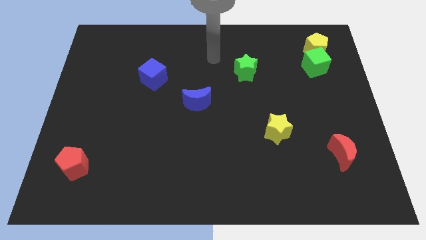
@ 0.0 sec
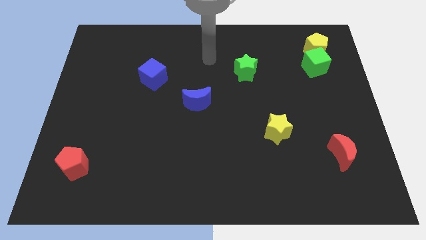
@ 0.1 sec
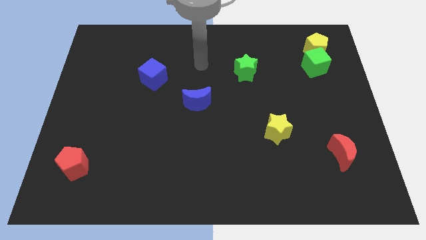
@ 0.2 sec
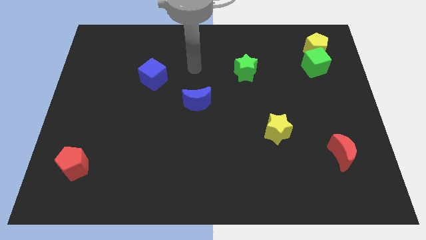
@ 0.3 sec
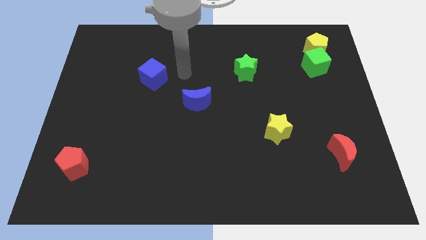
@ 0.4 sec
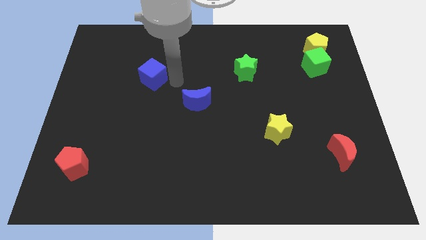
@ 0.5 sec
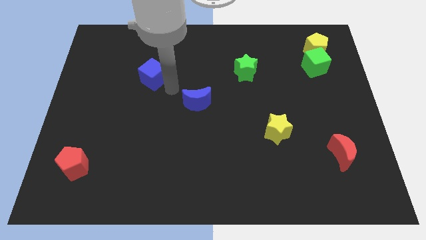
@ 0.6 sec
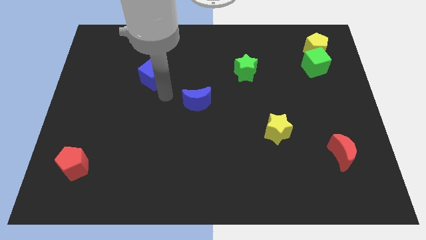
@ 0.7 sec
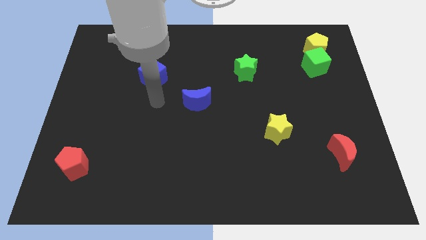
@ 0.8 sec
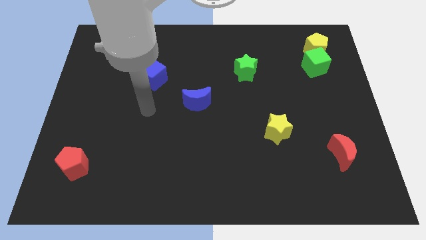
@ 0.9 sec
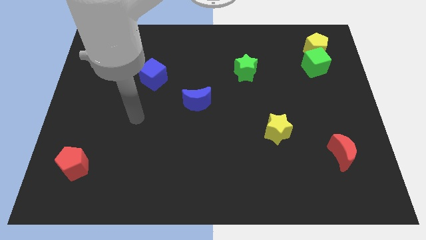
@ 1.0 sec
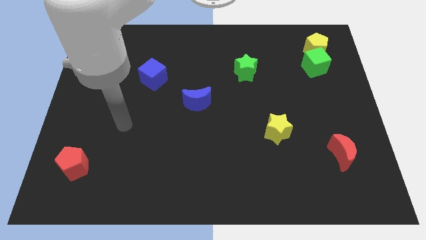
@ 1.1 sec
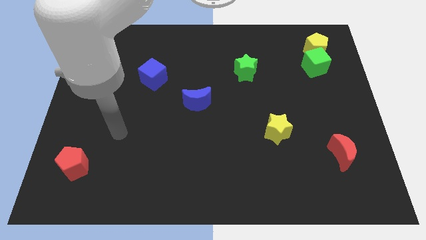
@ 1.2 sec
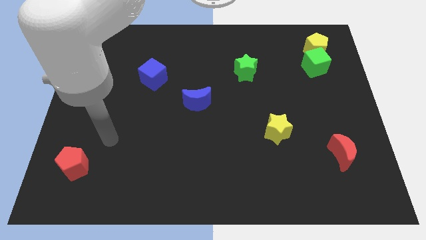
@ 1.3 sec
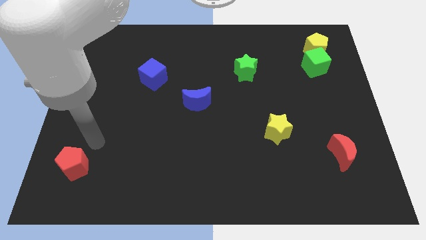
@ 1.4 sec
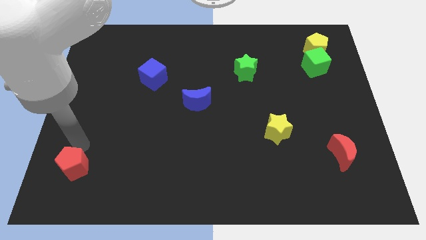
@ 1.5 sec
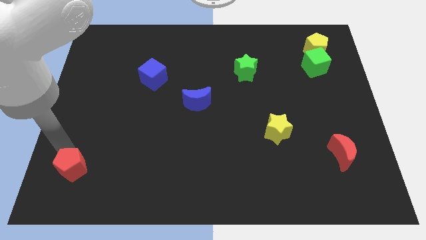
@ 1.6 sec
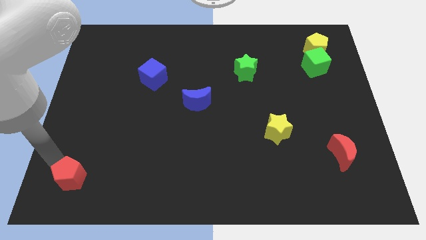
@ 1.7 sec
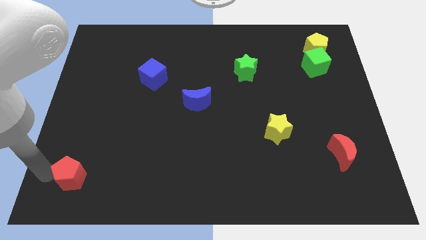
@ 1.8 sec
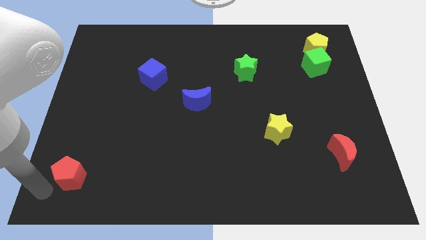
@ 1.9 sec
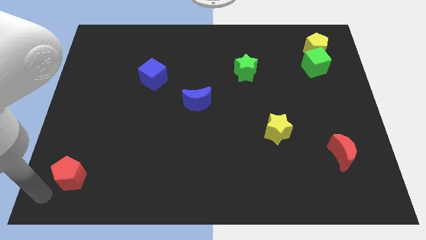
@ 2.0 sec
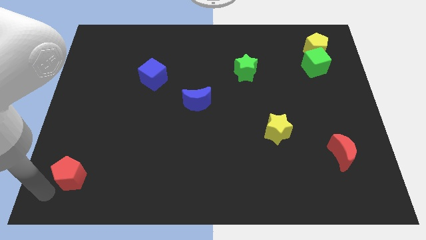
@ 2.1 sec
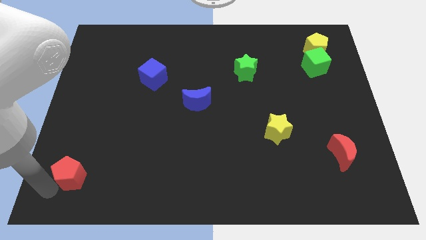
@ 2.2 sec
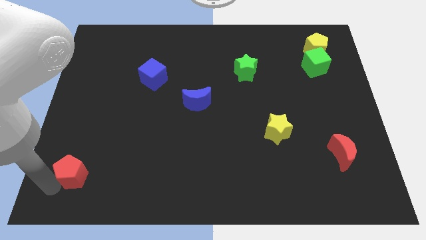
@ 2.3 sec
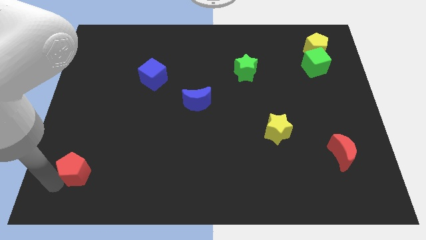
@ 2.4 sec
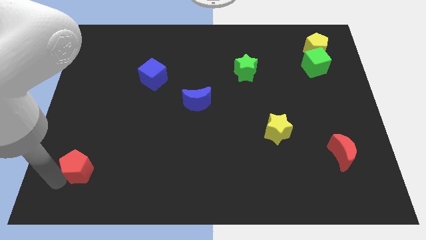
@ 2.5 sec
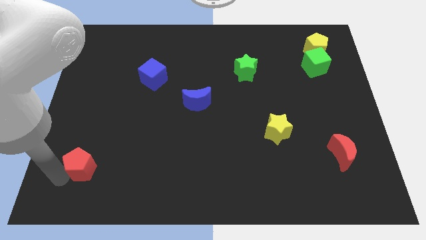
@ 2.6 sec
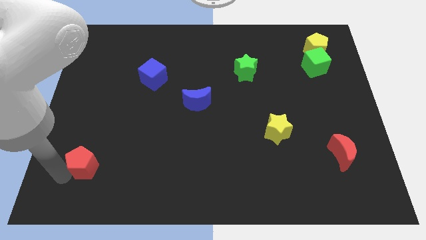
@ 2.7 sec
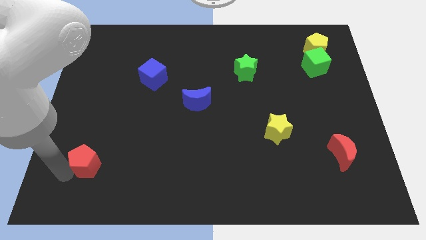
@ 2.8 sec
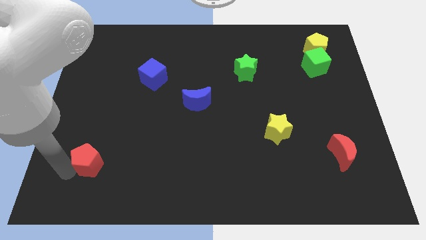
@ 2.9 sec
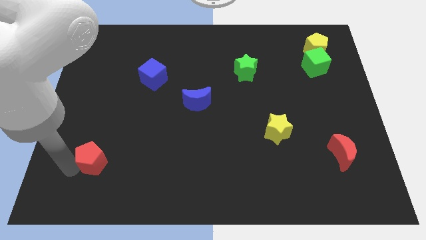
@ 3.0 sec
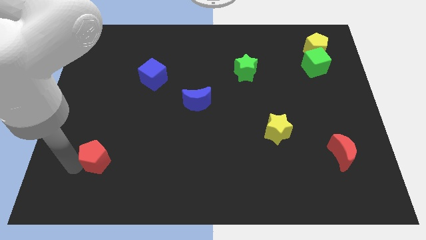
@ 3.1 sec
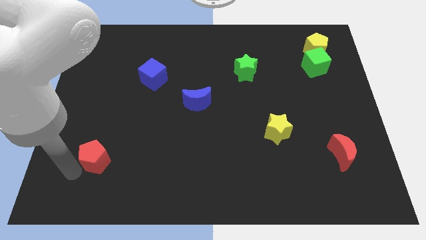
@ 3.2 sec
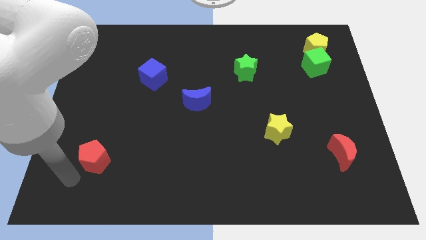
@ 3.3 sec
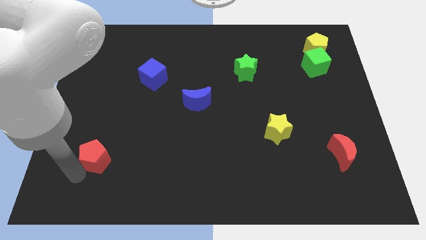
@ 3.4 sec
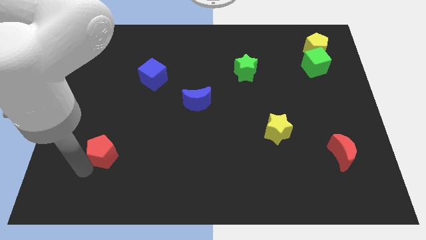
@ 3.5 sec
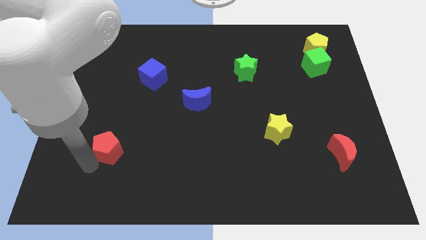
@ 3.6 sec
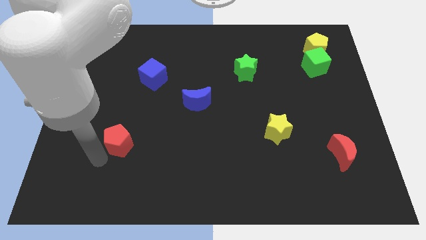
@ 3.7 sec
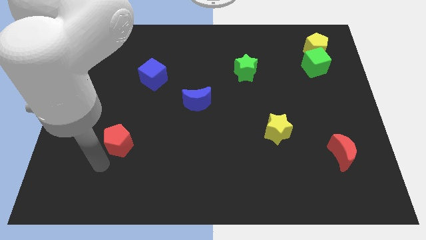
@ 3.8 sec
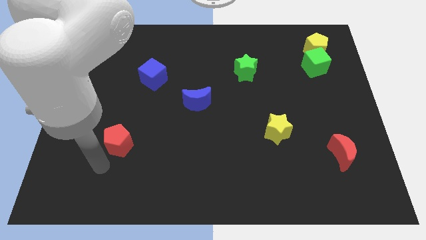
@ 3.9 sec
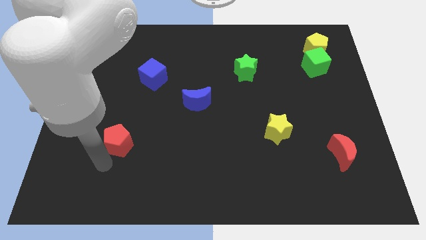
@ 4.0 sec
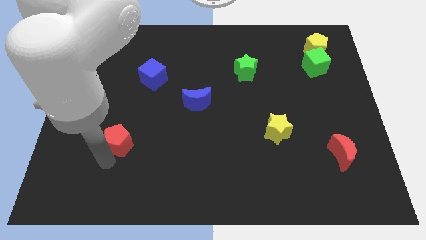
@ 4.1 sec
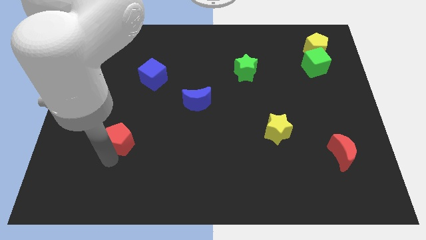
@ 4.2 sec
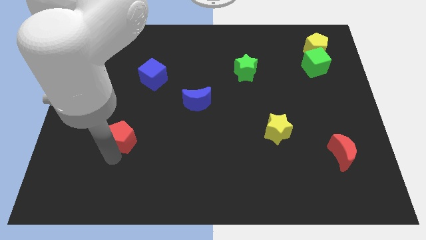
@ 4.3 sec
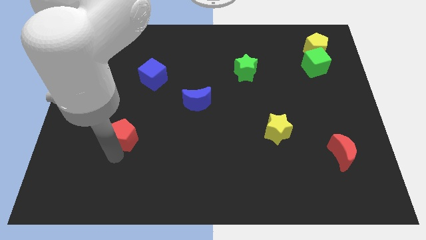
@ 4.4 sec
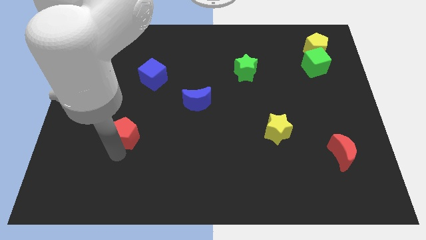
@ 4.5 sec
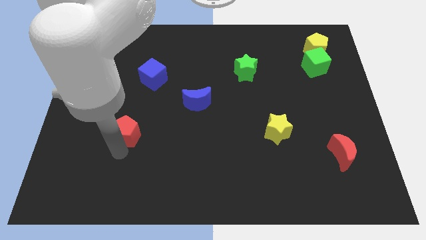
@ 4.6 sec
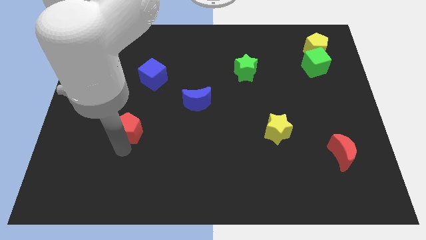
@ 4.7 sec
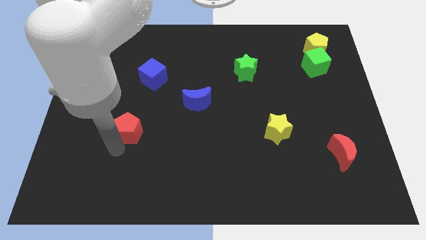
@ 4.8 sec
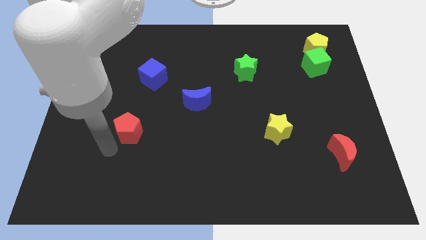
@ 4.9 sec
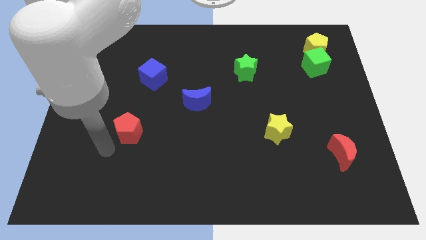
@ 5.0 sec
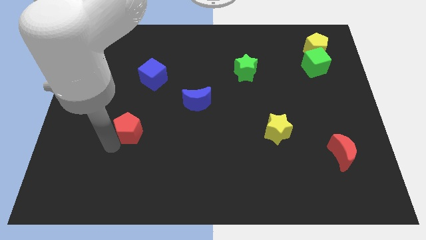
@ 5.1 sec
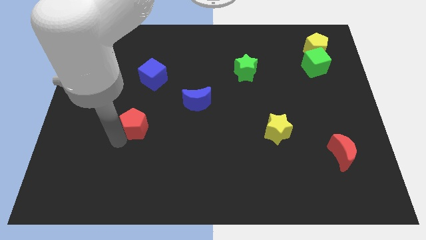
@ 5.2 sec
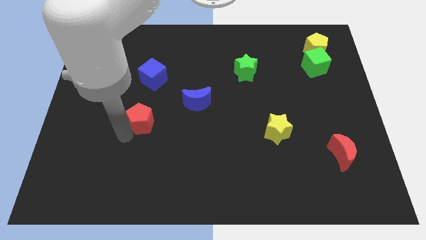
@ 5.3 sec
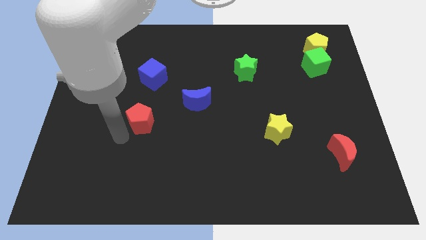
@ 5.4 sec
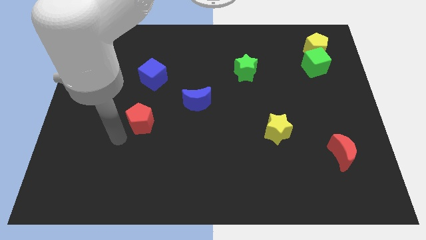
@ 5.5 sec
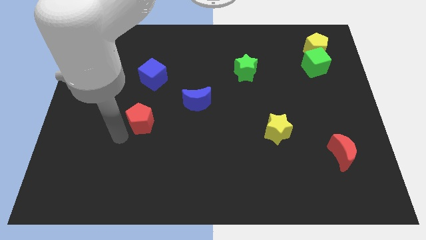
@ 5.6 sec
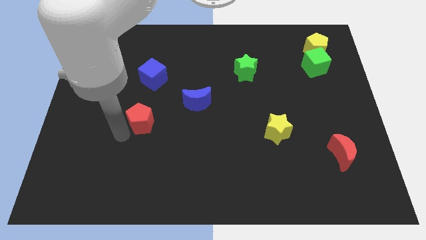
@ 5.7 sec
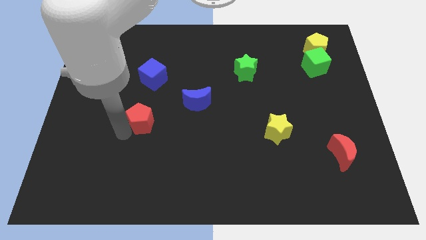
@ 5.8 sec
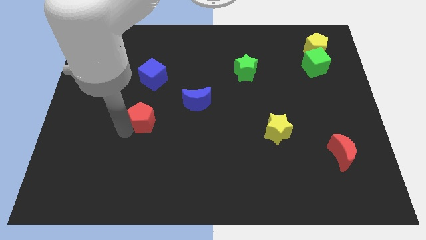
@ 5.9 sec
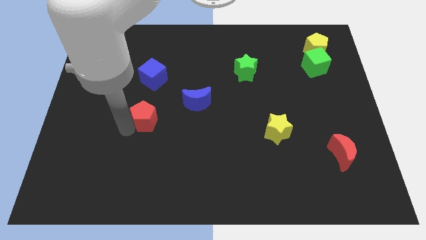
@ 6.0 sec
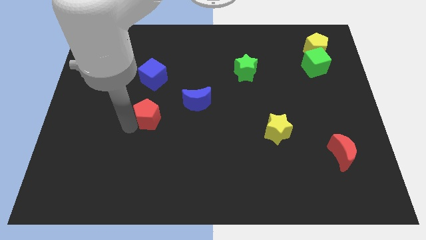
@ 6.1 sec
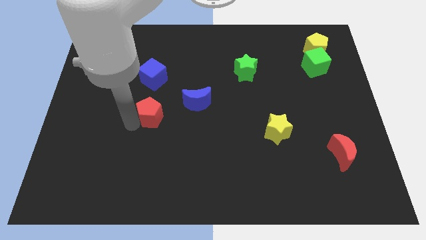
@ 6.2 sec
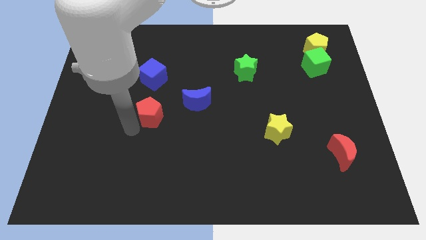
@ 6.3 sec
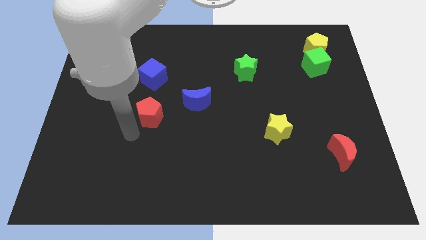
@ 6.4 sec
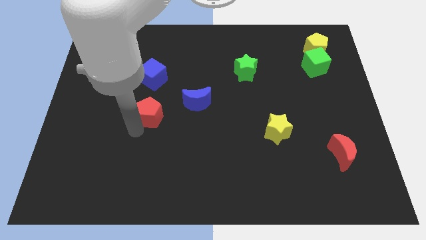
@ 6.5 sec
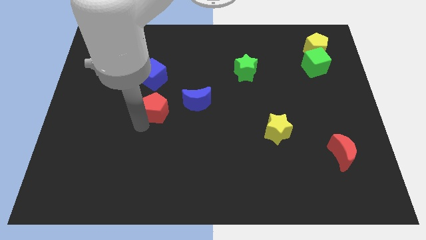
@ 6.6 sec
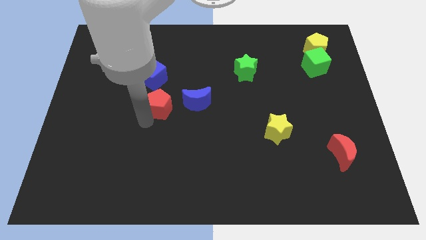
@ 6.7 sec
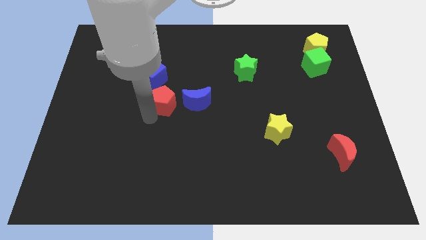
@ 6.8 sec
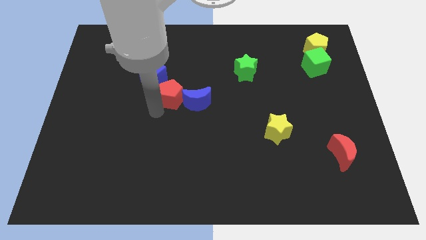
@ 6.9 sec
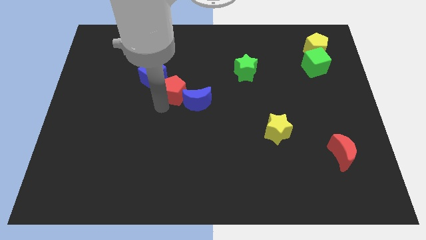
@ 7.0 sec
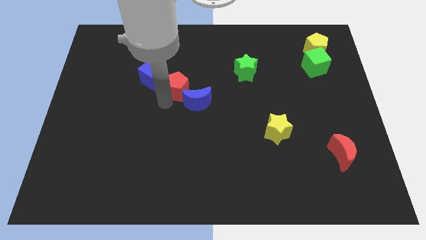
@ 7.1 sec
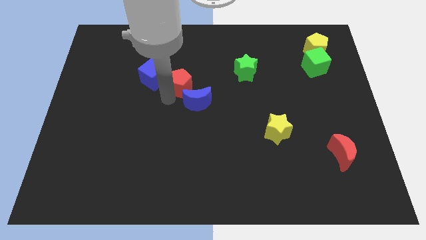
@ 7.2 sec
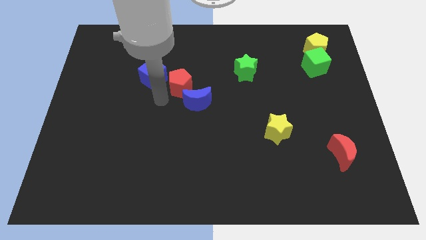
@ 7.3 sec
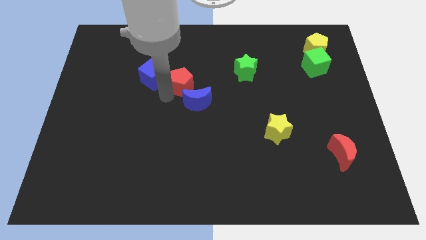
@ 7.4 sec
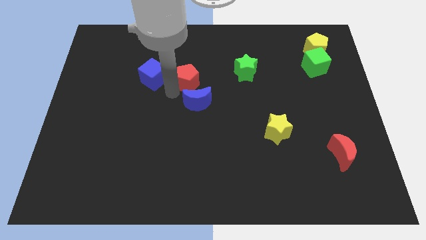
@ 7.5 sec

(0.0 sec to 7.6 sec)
slide the red pentagon just left of the green star
